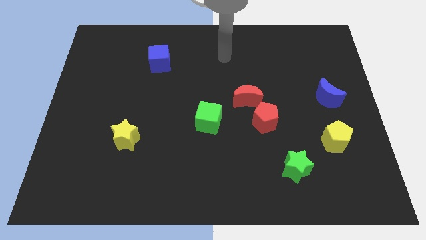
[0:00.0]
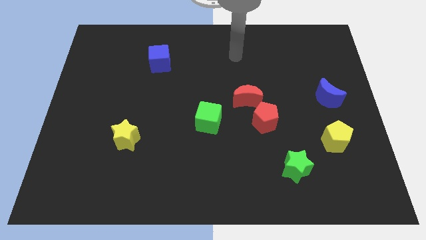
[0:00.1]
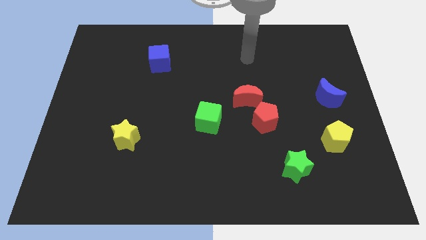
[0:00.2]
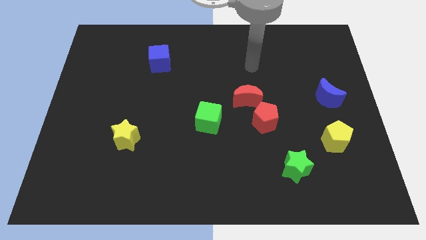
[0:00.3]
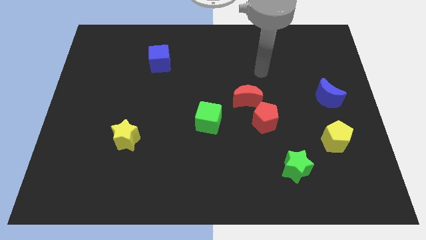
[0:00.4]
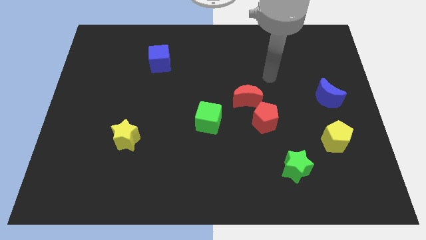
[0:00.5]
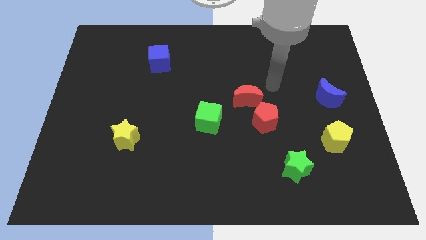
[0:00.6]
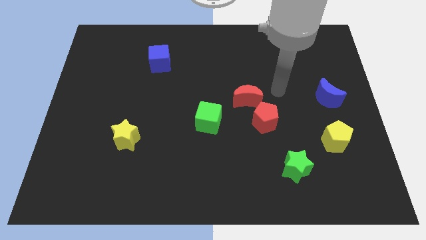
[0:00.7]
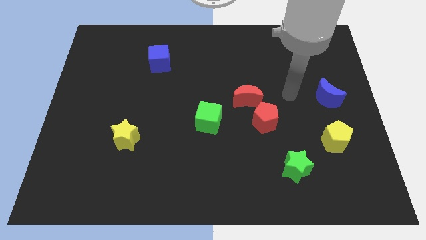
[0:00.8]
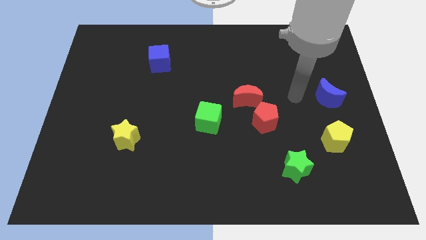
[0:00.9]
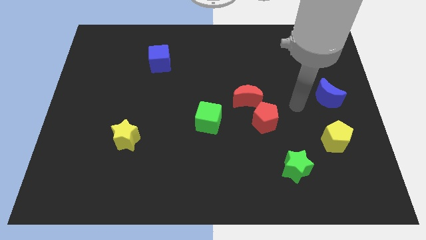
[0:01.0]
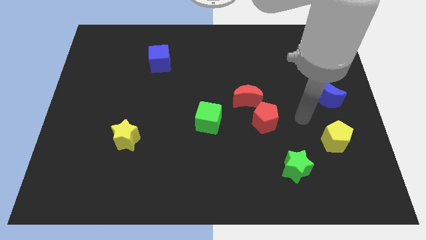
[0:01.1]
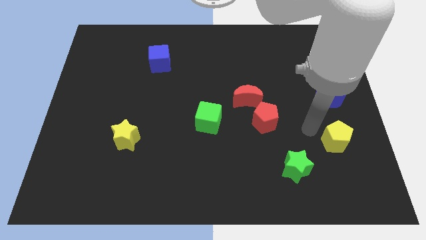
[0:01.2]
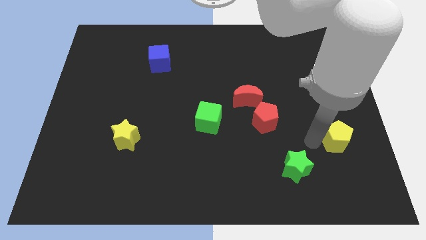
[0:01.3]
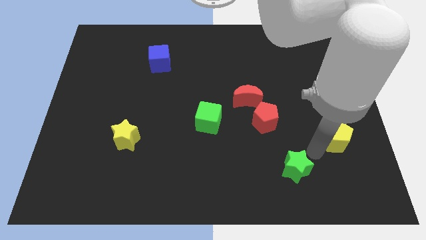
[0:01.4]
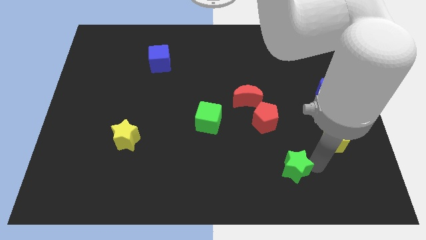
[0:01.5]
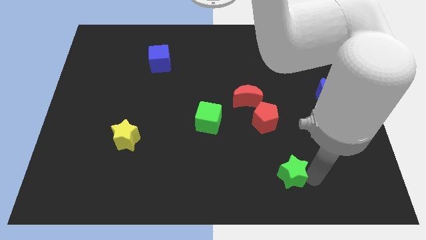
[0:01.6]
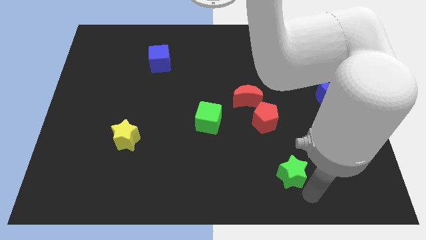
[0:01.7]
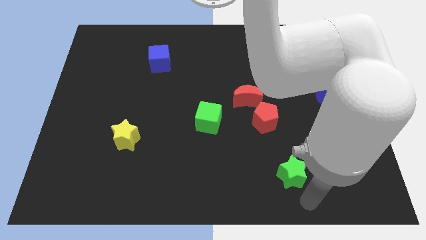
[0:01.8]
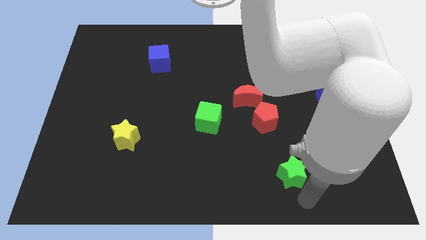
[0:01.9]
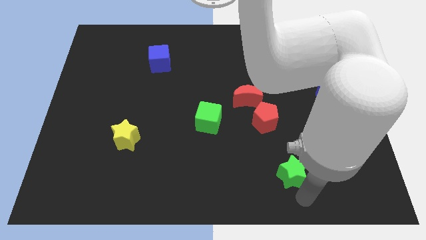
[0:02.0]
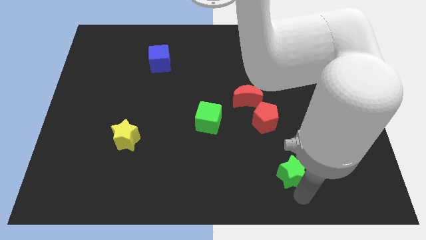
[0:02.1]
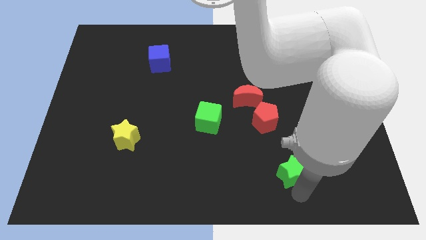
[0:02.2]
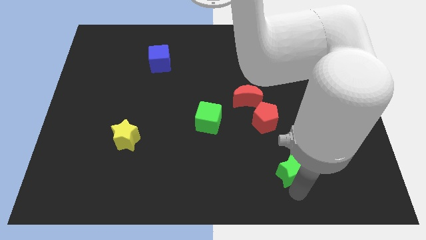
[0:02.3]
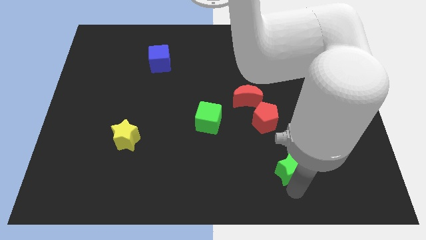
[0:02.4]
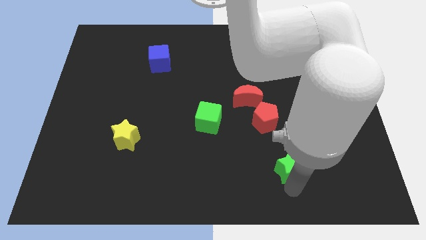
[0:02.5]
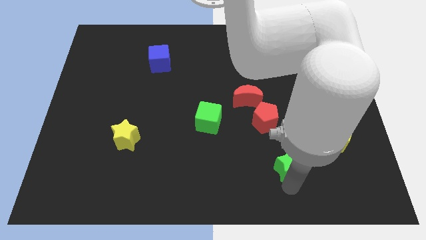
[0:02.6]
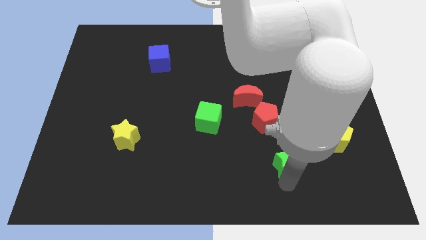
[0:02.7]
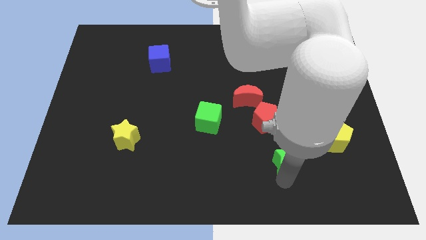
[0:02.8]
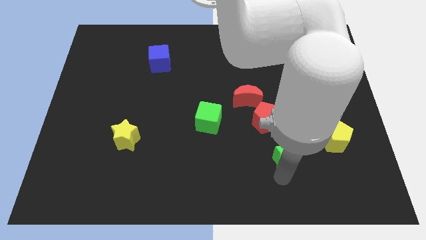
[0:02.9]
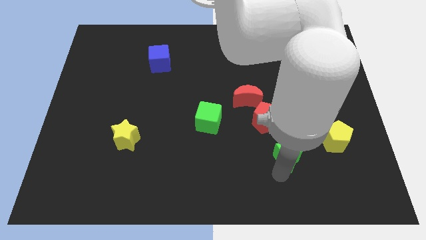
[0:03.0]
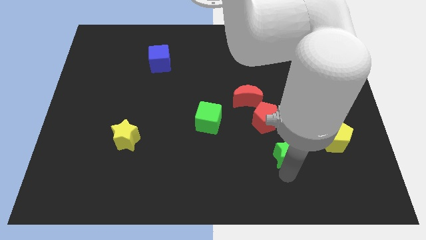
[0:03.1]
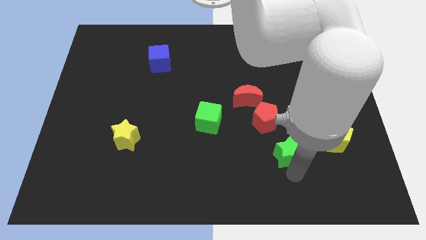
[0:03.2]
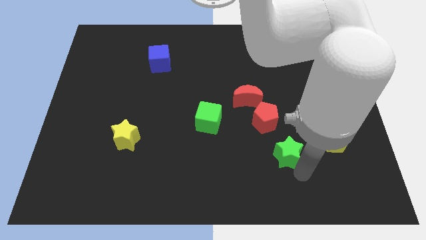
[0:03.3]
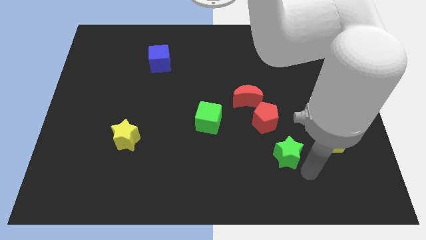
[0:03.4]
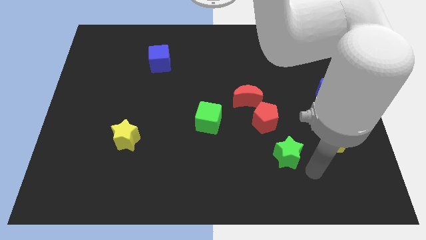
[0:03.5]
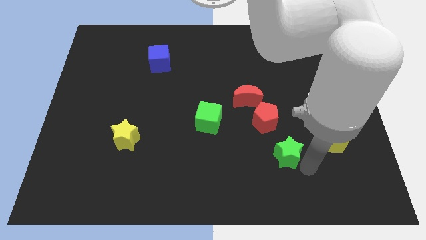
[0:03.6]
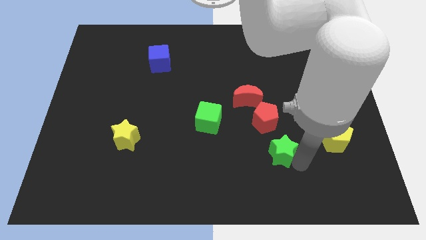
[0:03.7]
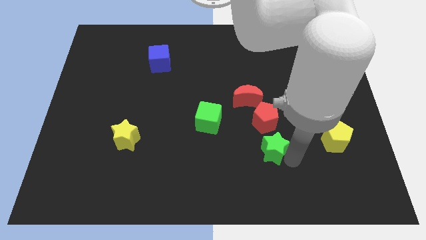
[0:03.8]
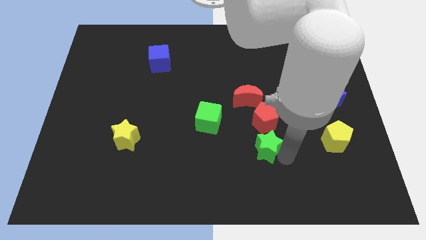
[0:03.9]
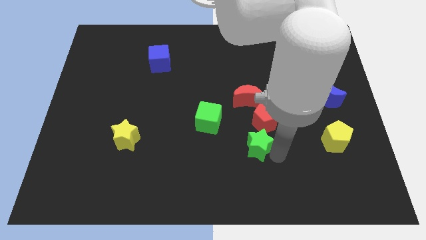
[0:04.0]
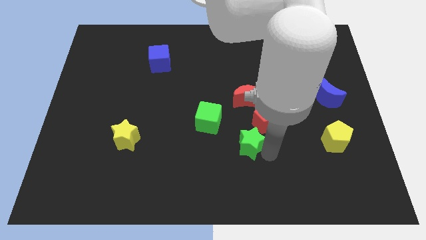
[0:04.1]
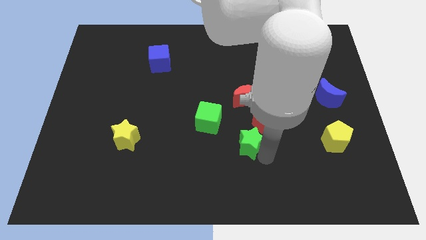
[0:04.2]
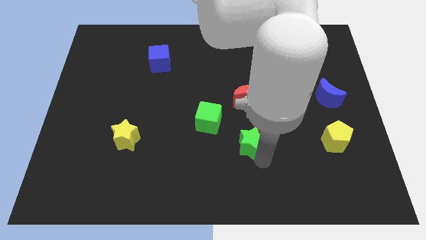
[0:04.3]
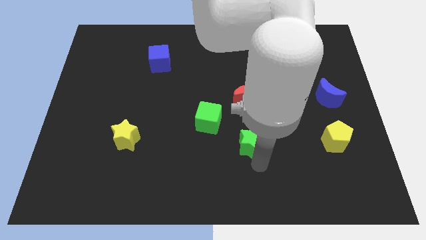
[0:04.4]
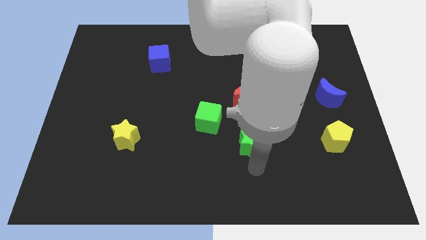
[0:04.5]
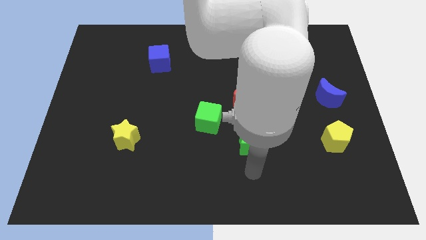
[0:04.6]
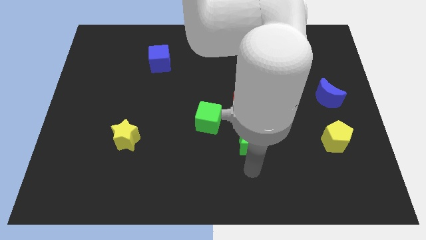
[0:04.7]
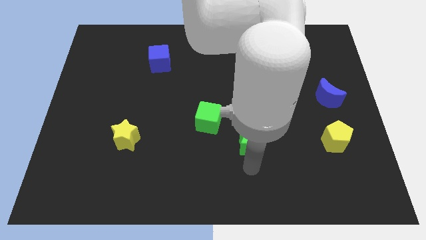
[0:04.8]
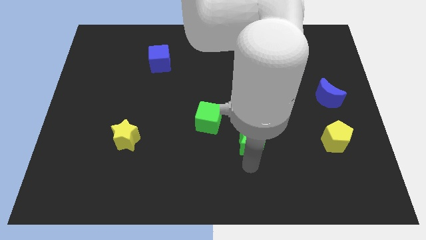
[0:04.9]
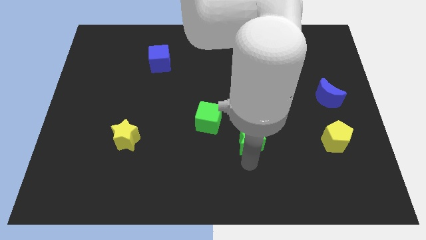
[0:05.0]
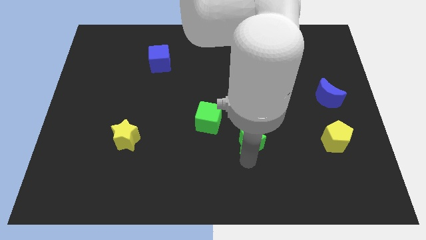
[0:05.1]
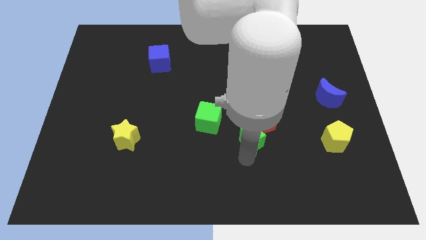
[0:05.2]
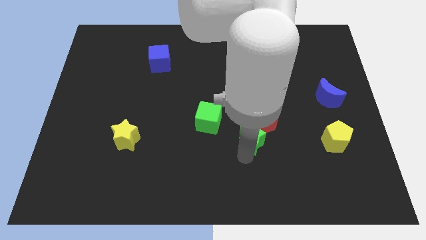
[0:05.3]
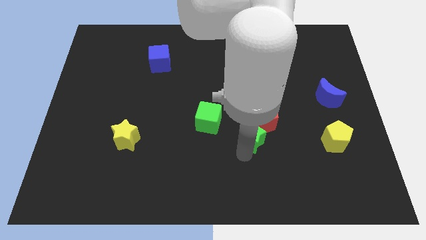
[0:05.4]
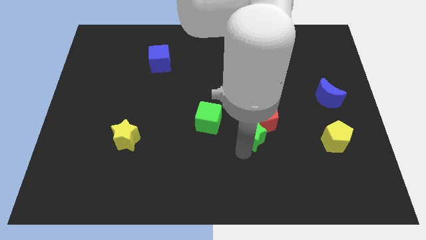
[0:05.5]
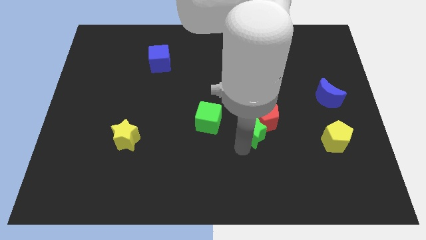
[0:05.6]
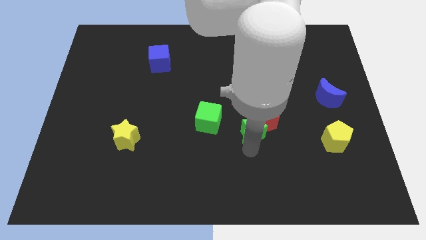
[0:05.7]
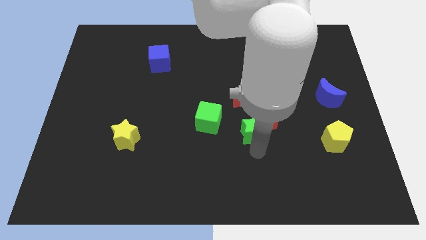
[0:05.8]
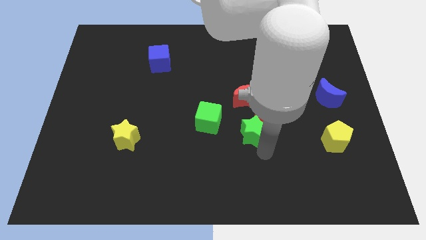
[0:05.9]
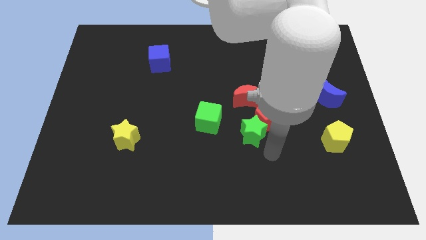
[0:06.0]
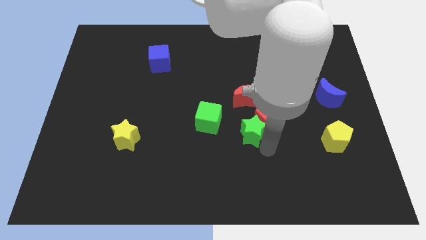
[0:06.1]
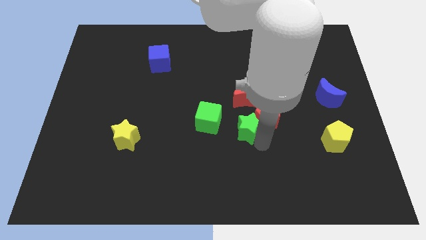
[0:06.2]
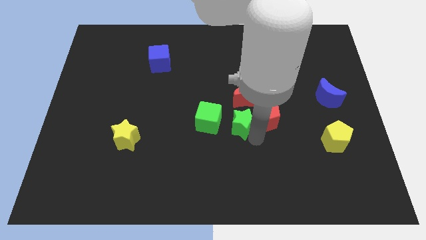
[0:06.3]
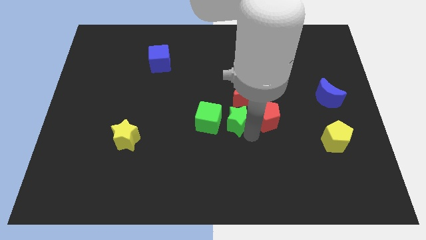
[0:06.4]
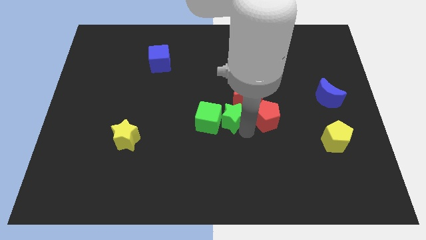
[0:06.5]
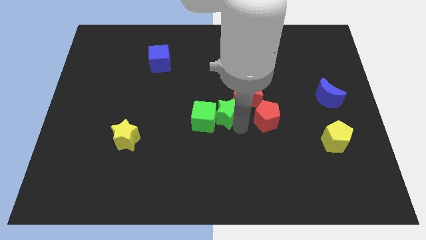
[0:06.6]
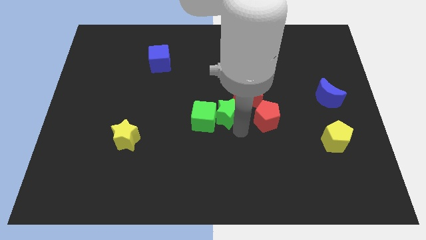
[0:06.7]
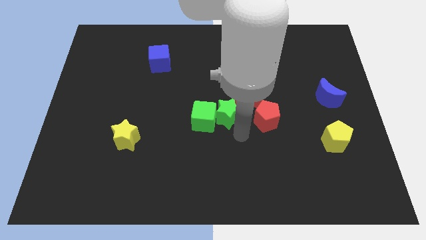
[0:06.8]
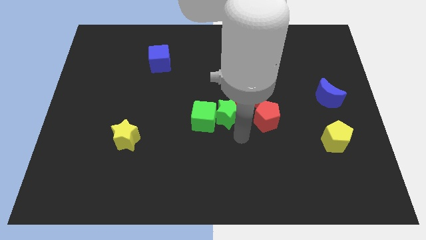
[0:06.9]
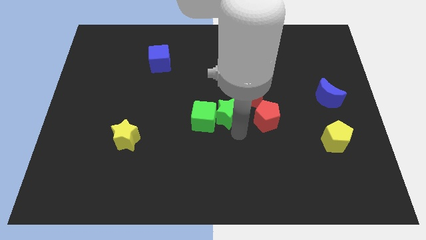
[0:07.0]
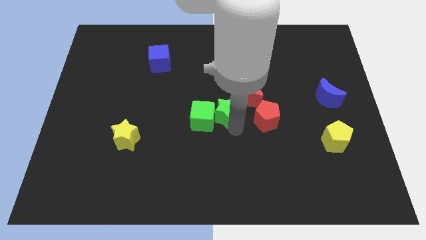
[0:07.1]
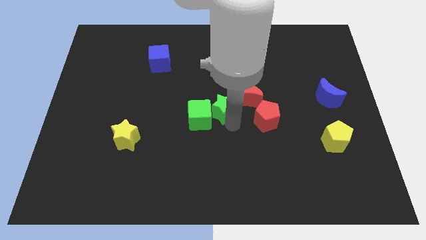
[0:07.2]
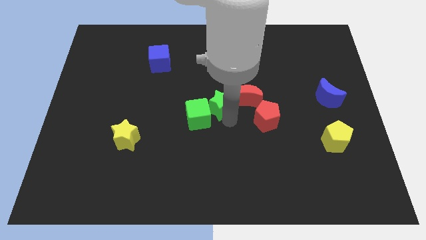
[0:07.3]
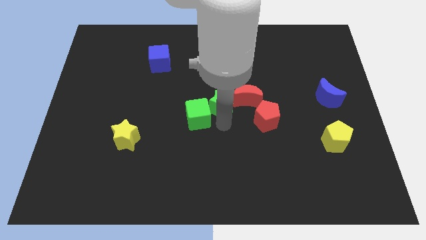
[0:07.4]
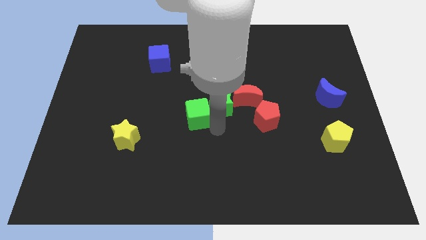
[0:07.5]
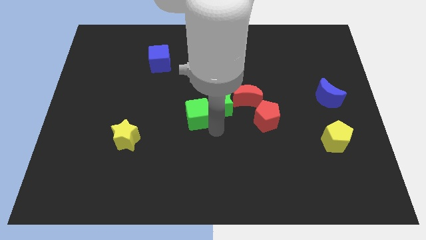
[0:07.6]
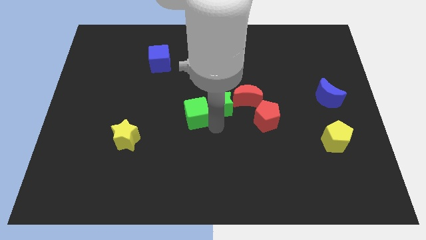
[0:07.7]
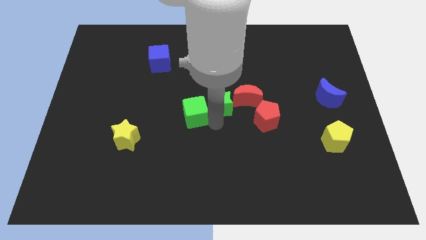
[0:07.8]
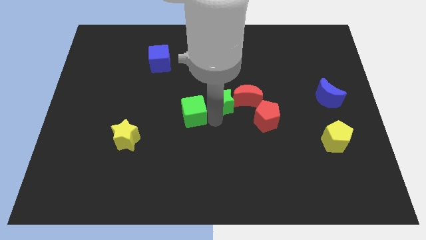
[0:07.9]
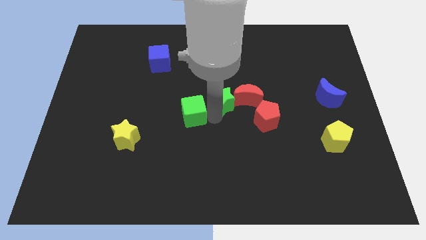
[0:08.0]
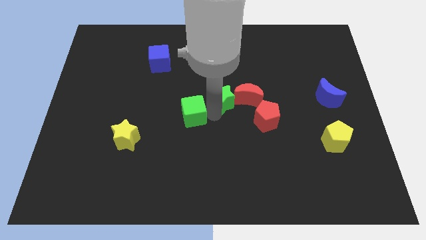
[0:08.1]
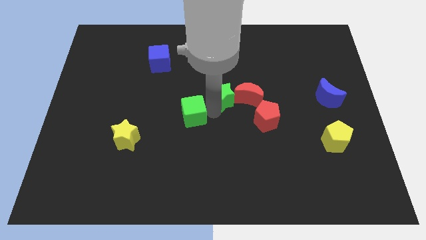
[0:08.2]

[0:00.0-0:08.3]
put the green star to the top left of the red moon
